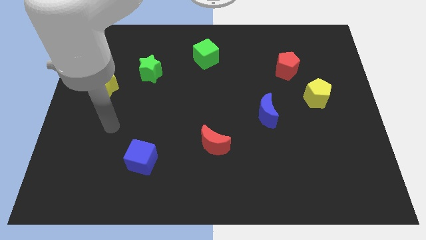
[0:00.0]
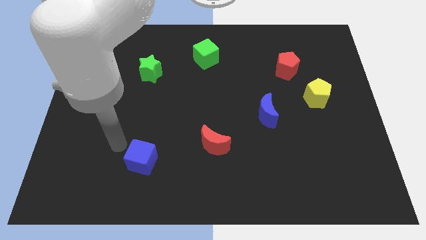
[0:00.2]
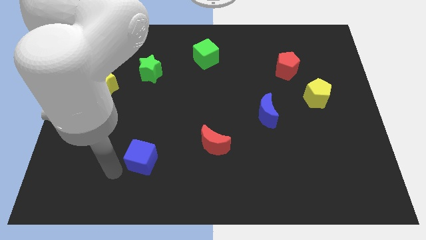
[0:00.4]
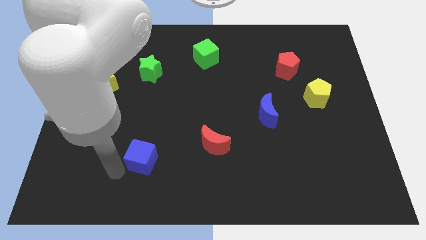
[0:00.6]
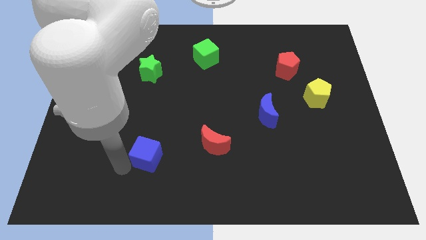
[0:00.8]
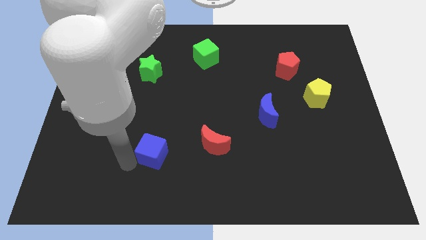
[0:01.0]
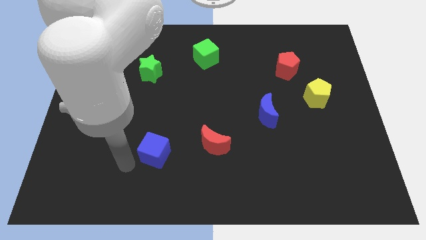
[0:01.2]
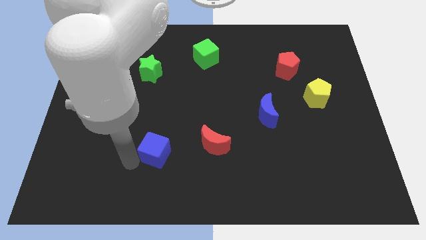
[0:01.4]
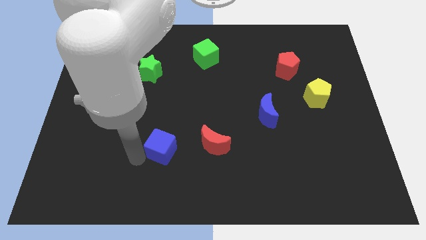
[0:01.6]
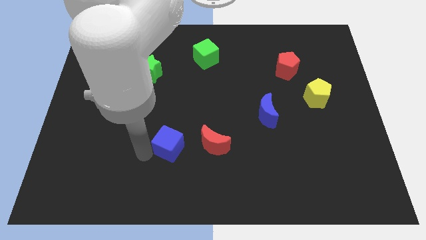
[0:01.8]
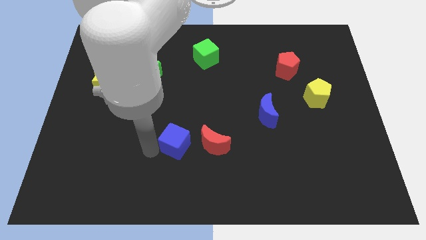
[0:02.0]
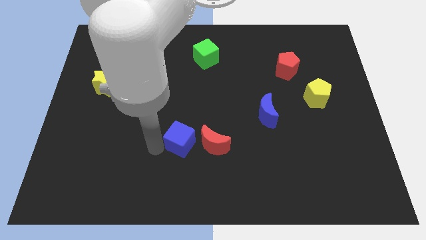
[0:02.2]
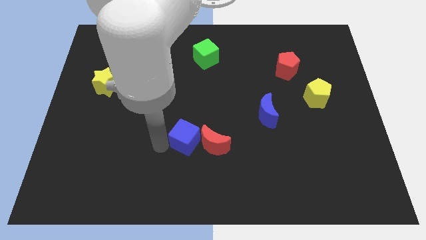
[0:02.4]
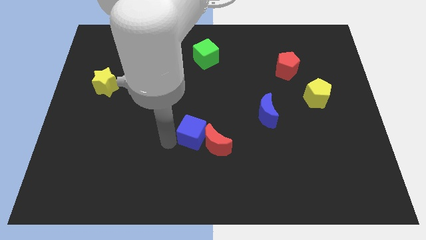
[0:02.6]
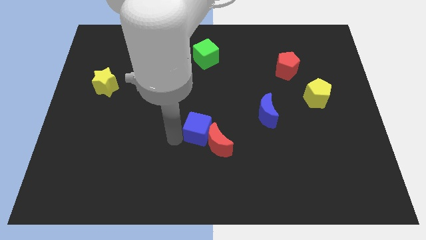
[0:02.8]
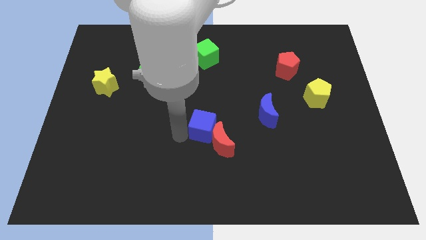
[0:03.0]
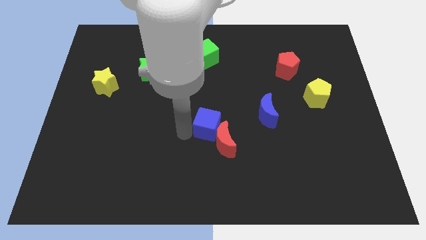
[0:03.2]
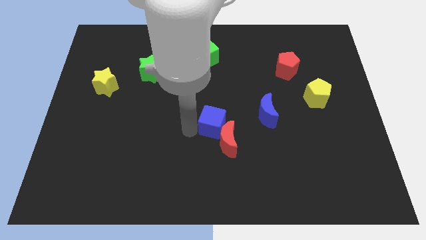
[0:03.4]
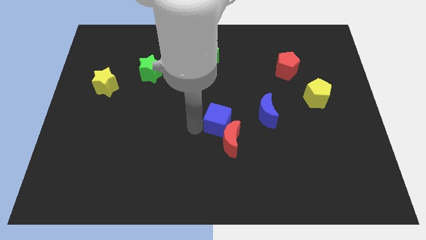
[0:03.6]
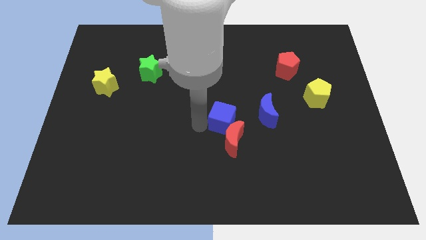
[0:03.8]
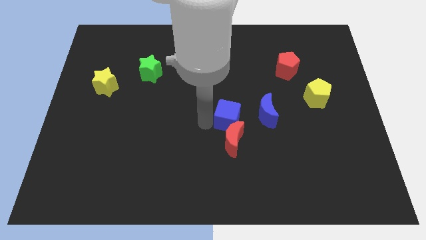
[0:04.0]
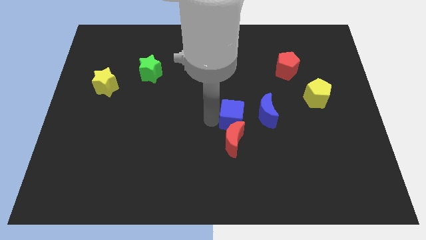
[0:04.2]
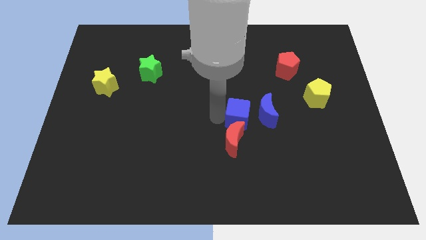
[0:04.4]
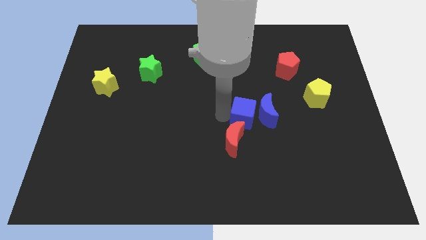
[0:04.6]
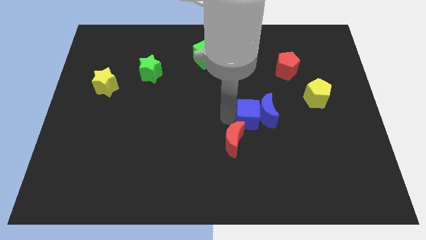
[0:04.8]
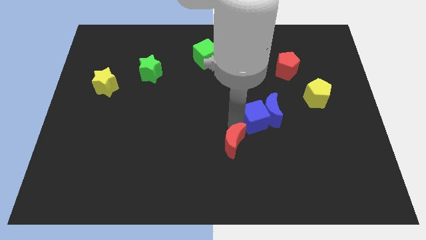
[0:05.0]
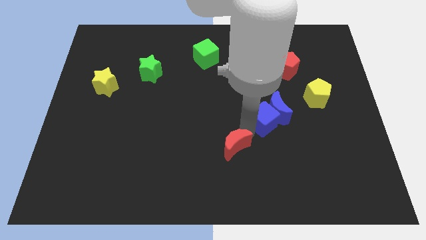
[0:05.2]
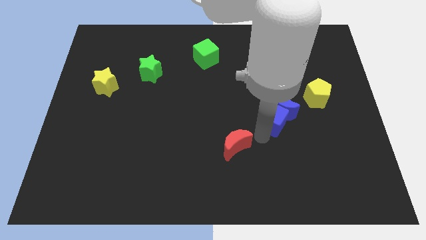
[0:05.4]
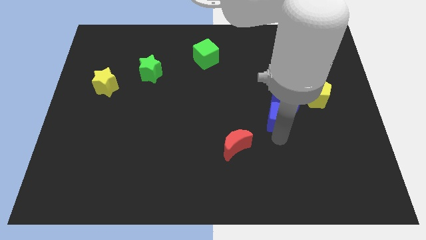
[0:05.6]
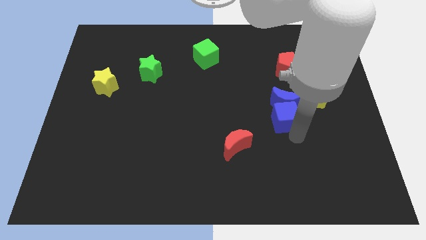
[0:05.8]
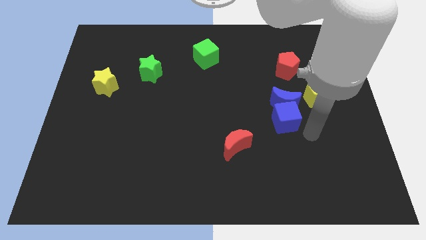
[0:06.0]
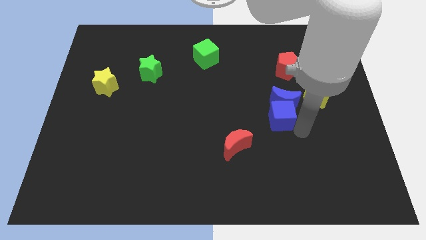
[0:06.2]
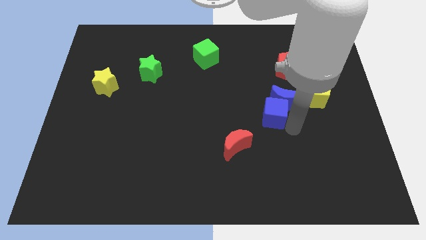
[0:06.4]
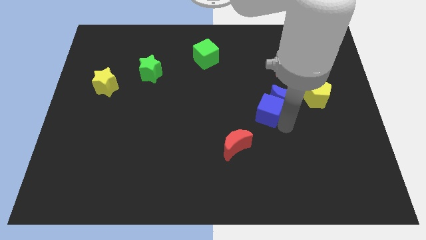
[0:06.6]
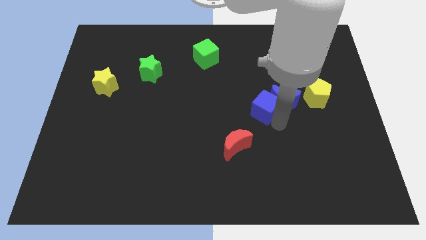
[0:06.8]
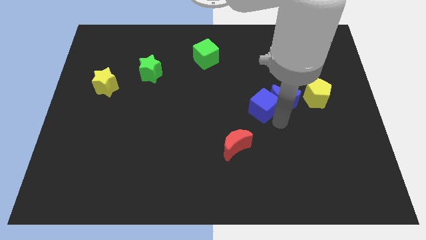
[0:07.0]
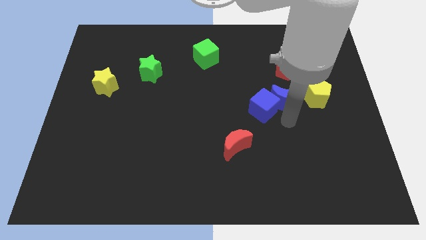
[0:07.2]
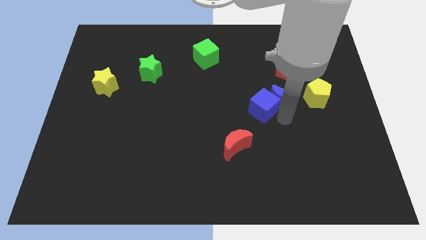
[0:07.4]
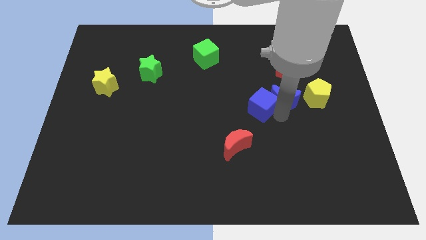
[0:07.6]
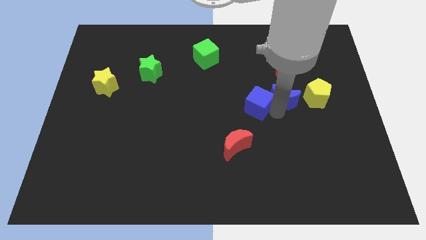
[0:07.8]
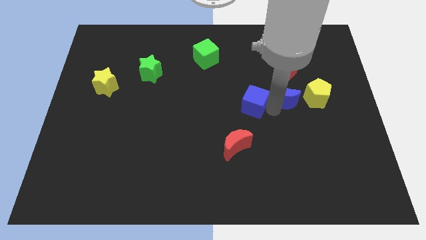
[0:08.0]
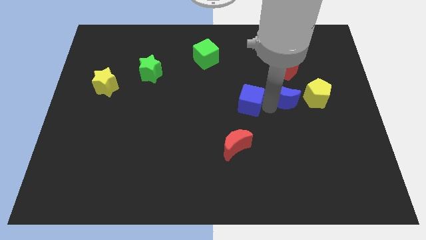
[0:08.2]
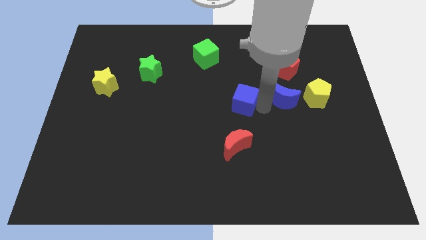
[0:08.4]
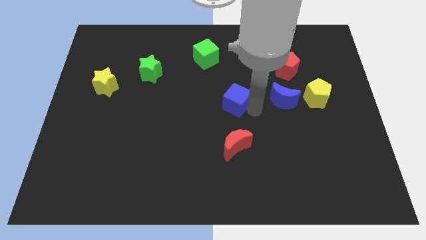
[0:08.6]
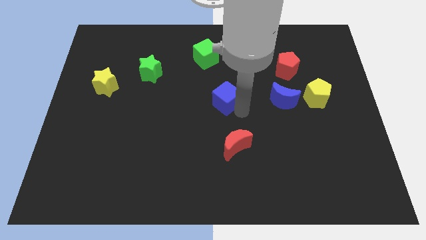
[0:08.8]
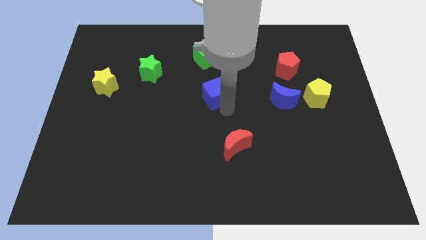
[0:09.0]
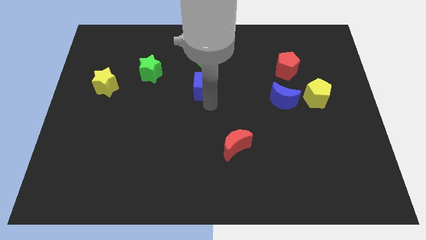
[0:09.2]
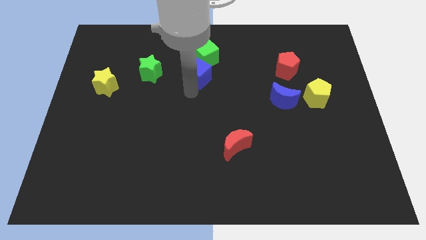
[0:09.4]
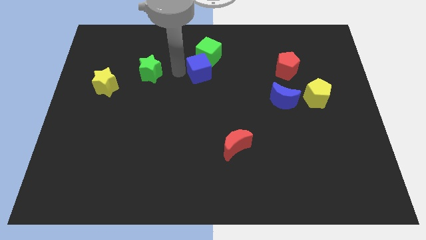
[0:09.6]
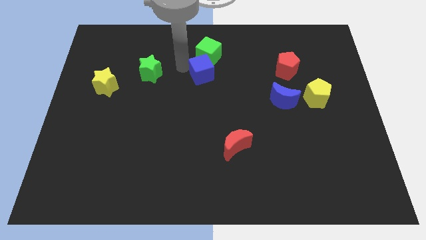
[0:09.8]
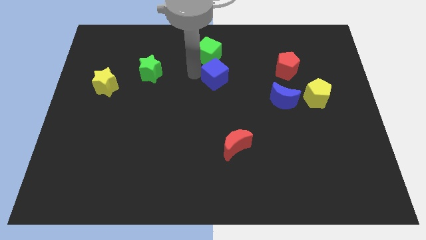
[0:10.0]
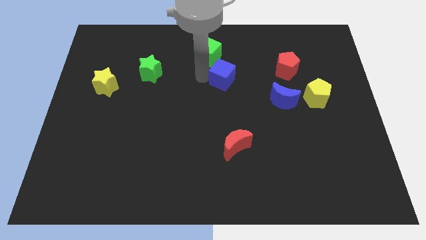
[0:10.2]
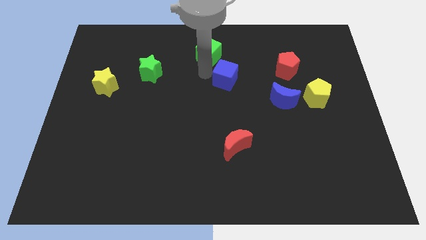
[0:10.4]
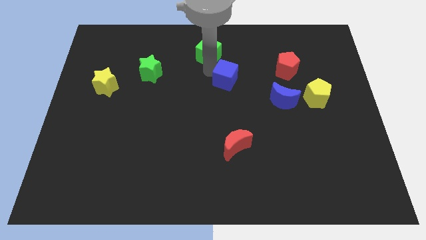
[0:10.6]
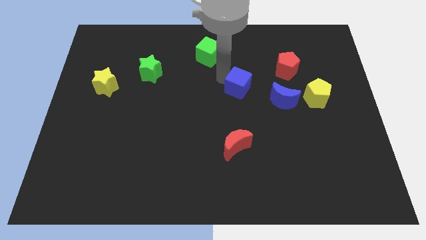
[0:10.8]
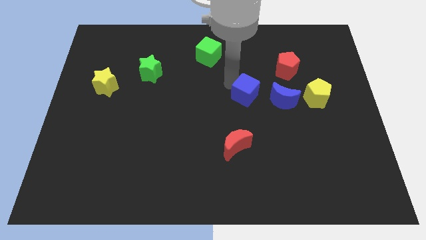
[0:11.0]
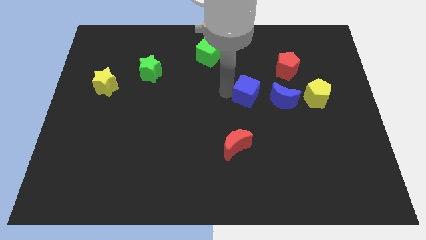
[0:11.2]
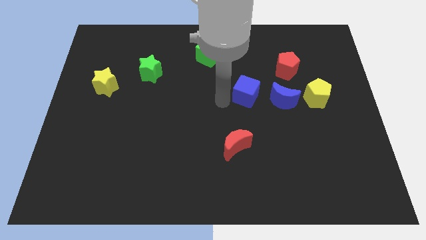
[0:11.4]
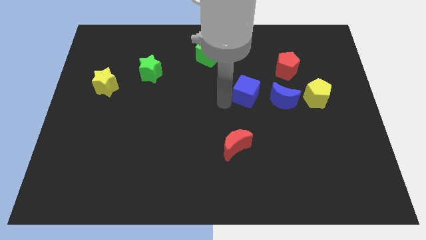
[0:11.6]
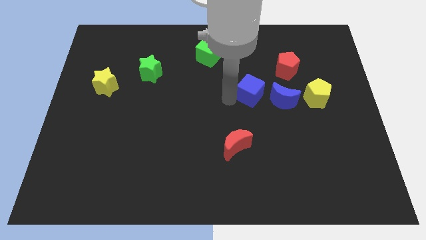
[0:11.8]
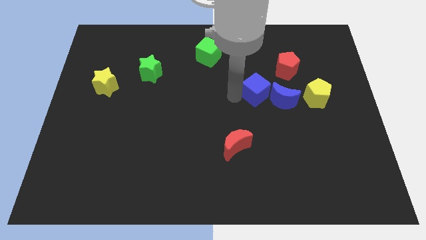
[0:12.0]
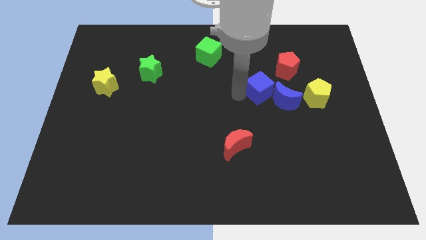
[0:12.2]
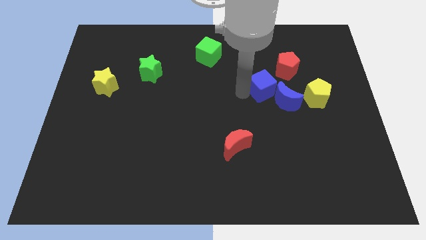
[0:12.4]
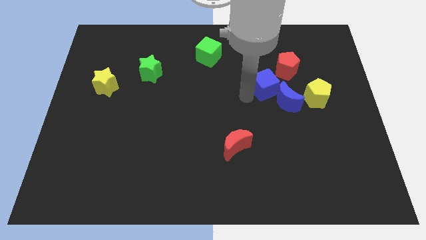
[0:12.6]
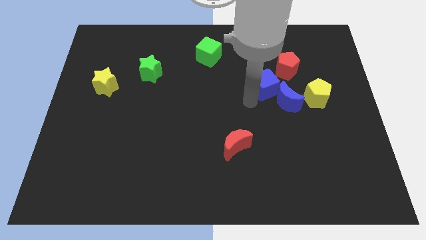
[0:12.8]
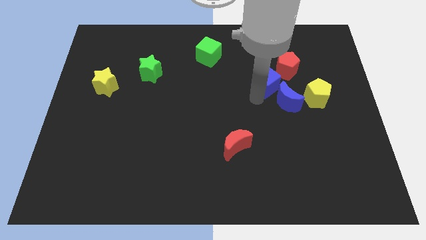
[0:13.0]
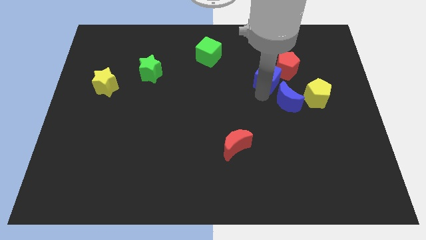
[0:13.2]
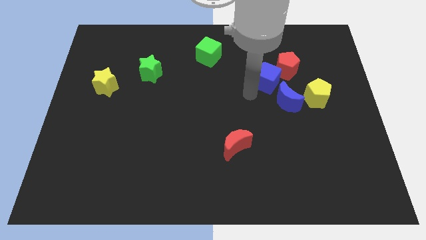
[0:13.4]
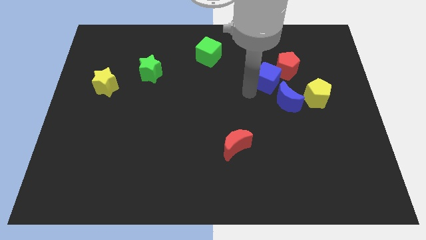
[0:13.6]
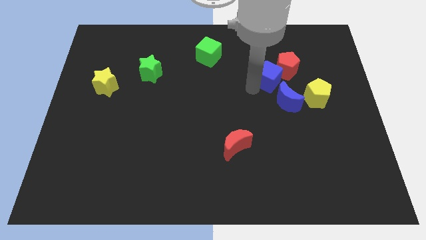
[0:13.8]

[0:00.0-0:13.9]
put the blue cube to the red pentagon
